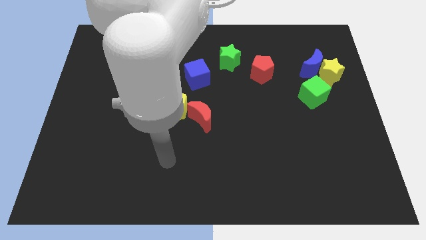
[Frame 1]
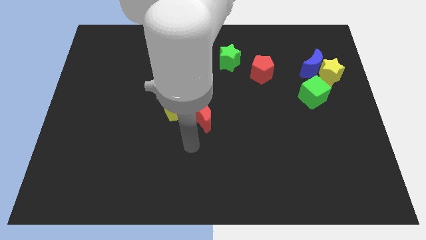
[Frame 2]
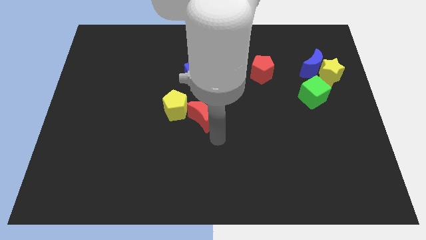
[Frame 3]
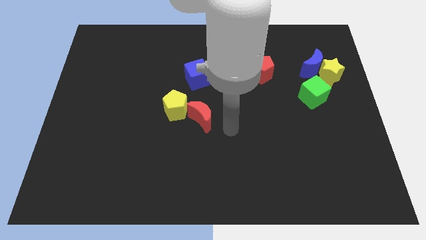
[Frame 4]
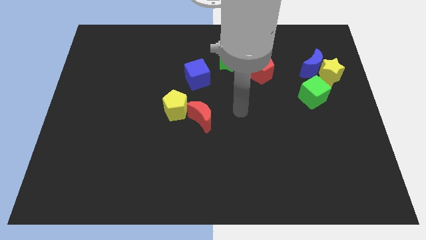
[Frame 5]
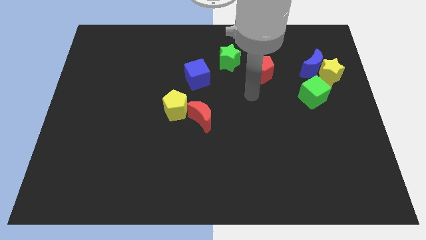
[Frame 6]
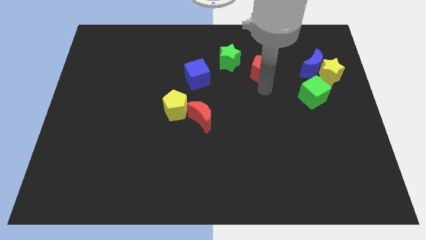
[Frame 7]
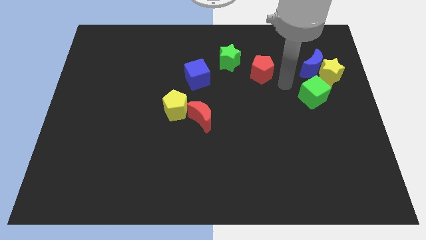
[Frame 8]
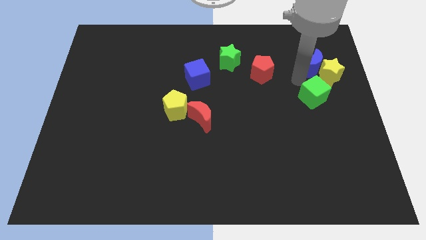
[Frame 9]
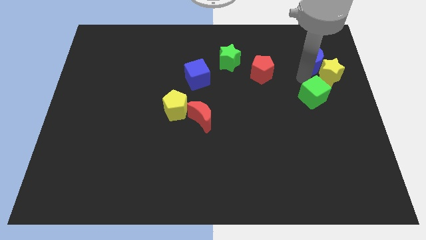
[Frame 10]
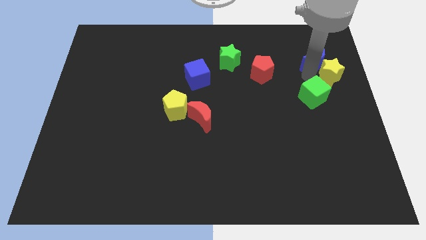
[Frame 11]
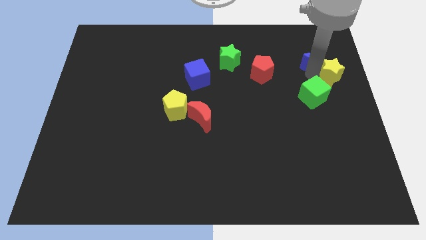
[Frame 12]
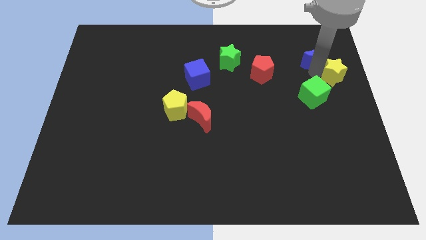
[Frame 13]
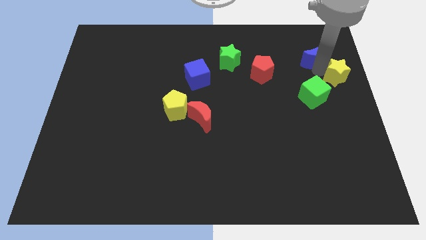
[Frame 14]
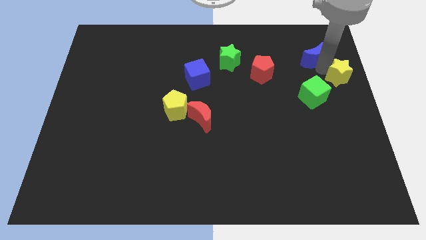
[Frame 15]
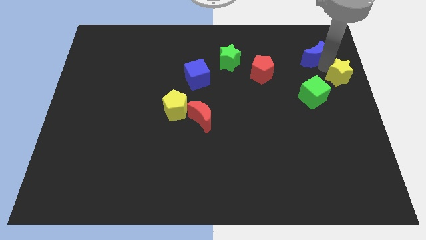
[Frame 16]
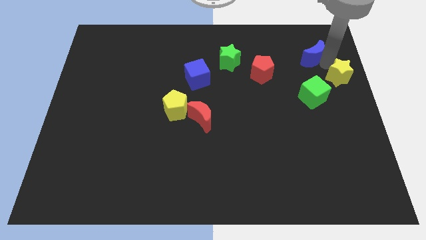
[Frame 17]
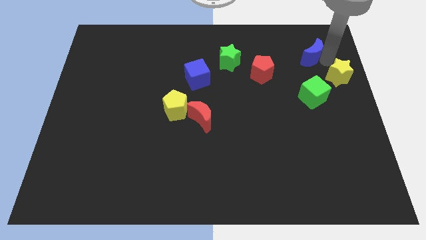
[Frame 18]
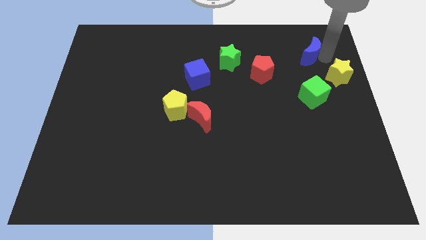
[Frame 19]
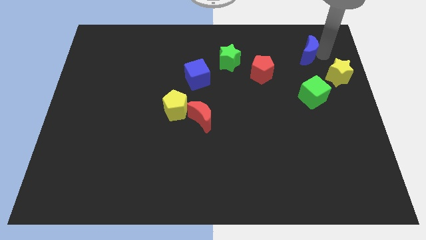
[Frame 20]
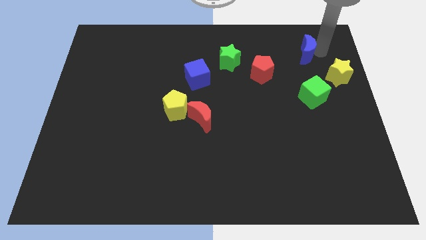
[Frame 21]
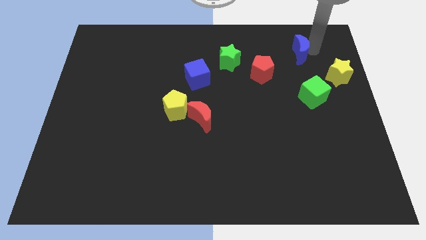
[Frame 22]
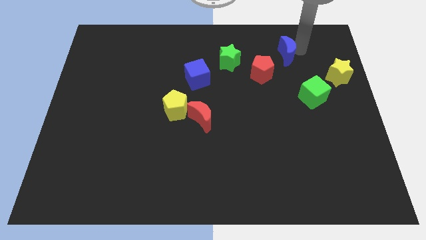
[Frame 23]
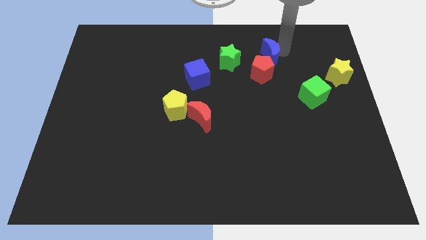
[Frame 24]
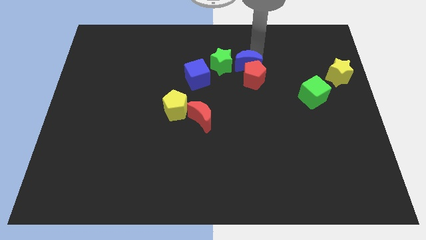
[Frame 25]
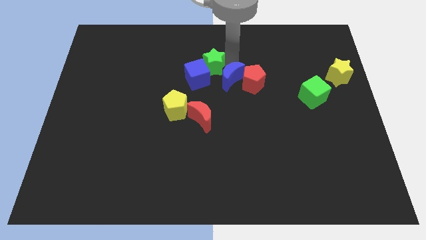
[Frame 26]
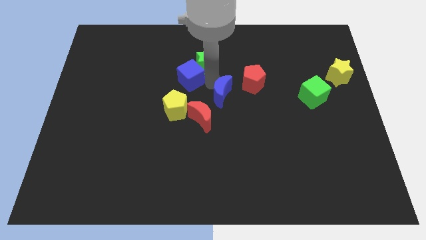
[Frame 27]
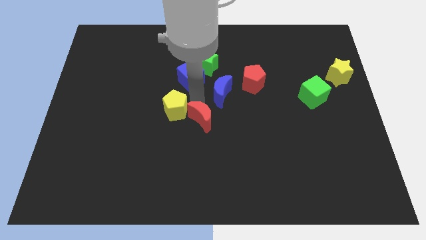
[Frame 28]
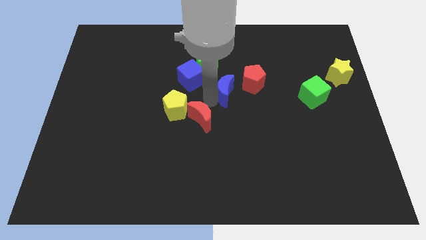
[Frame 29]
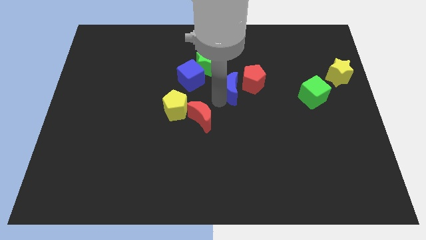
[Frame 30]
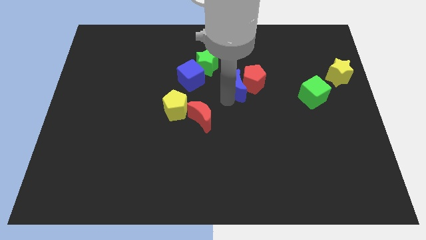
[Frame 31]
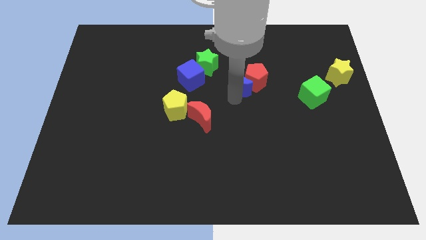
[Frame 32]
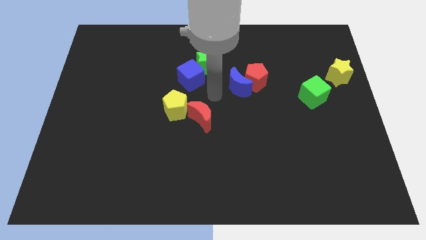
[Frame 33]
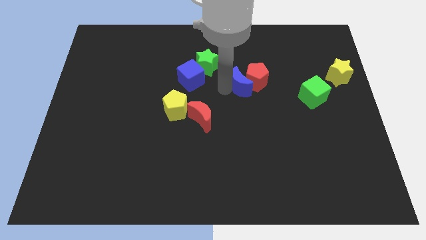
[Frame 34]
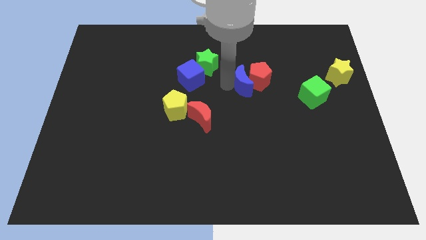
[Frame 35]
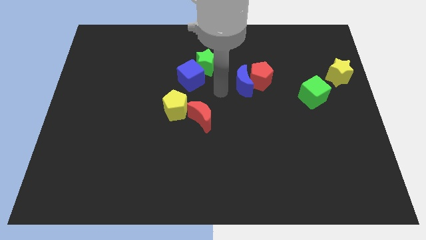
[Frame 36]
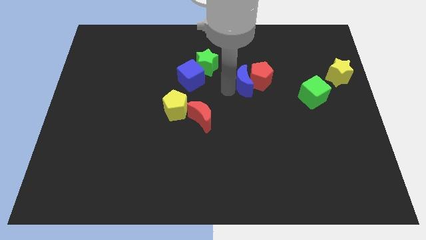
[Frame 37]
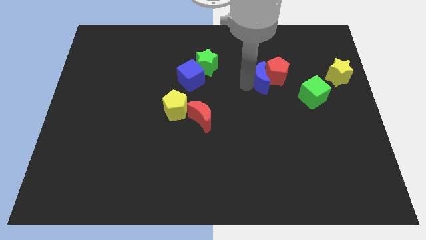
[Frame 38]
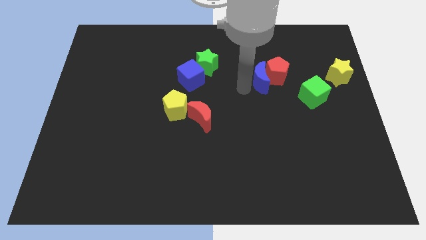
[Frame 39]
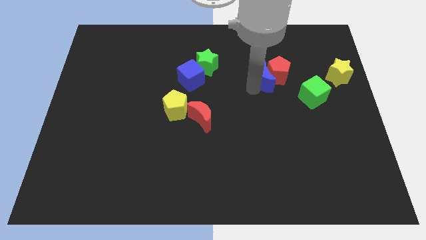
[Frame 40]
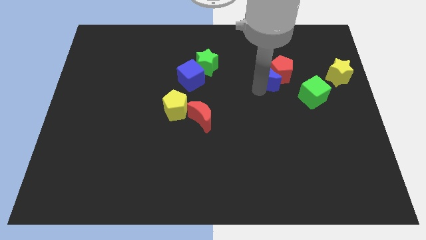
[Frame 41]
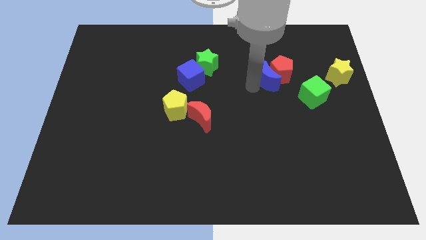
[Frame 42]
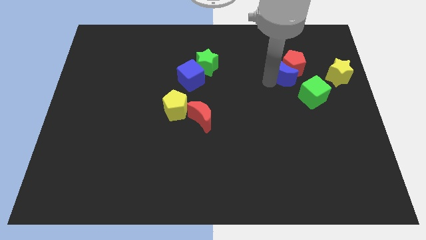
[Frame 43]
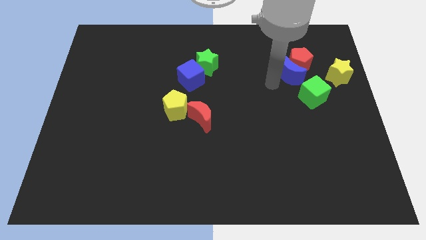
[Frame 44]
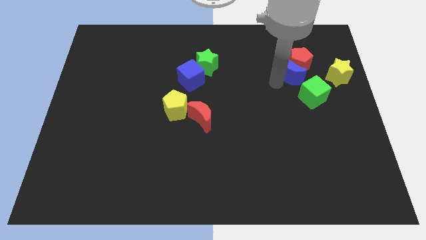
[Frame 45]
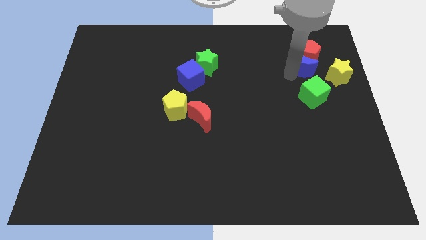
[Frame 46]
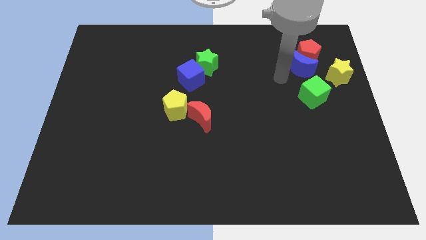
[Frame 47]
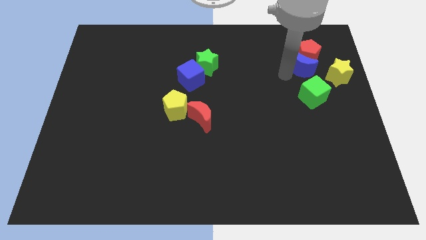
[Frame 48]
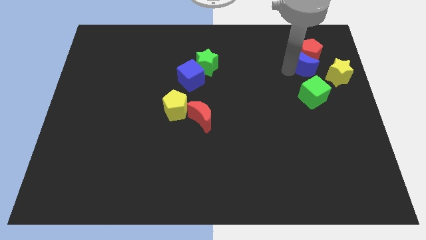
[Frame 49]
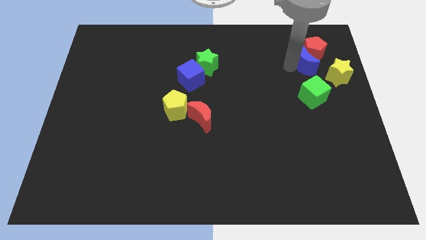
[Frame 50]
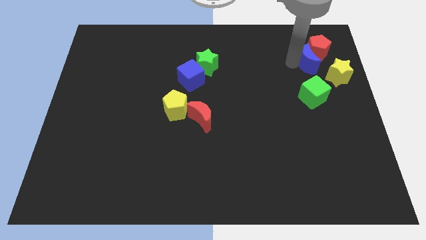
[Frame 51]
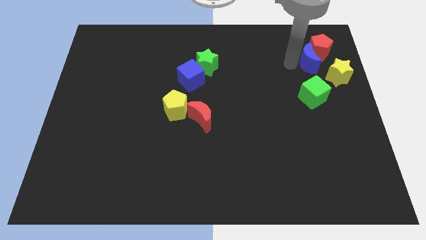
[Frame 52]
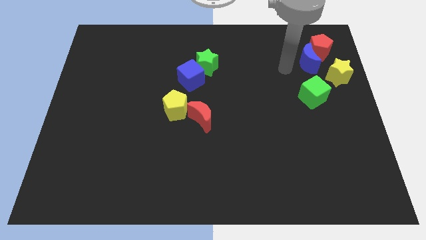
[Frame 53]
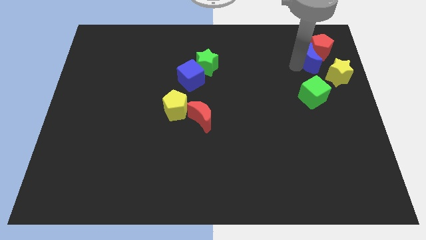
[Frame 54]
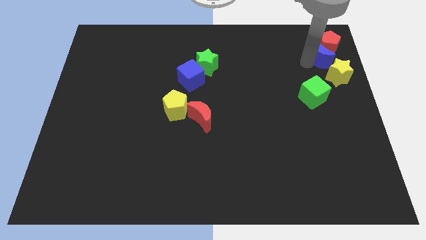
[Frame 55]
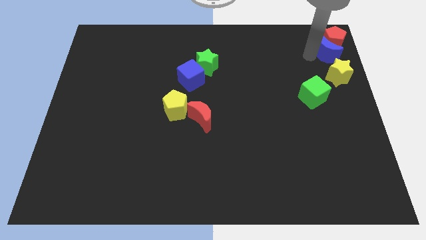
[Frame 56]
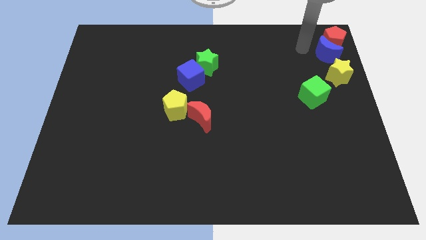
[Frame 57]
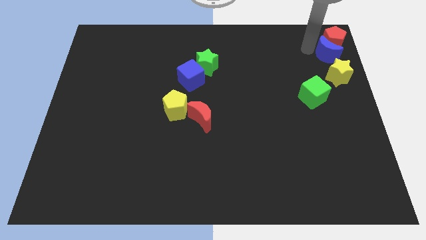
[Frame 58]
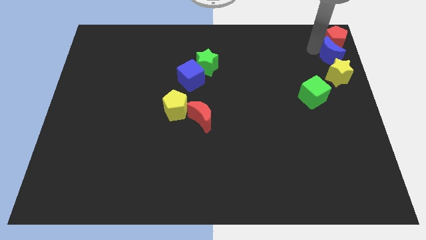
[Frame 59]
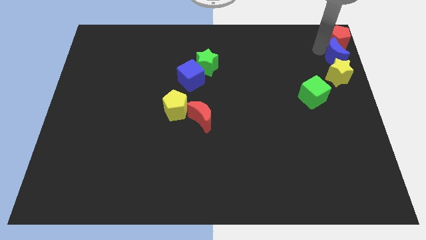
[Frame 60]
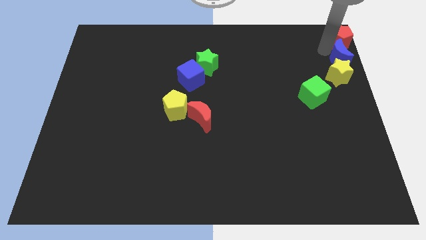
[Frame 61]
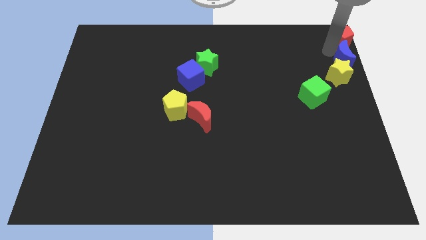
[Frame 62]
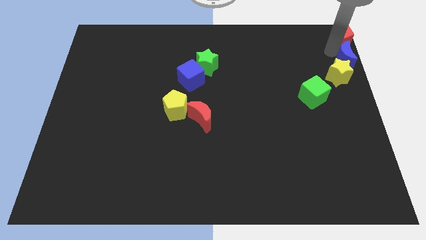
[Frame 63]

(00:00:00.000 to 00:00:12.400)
put the blue moon to the right side
